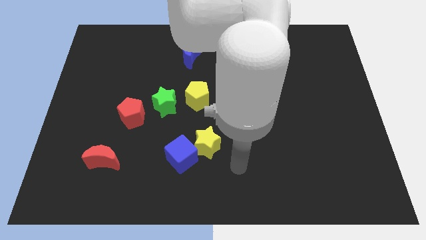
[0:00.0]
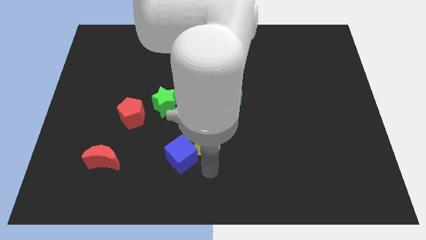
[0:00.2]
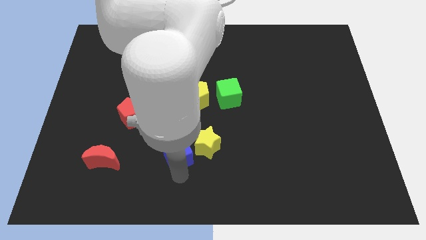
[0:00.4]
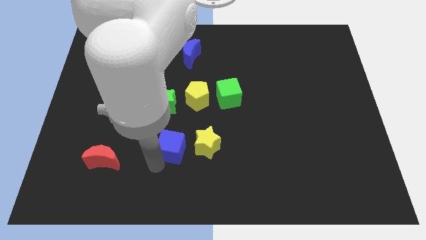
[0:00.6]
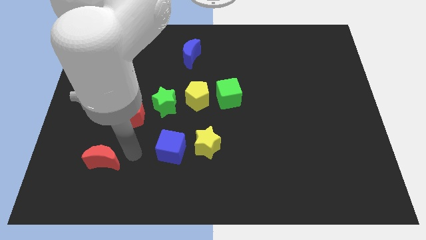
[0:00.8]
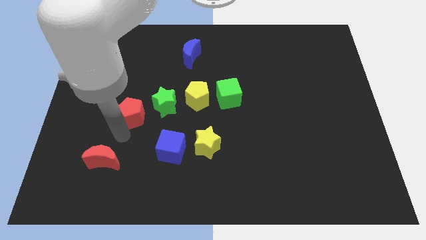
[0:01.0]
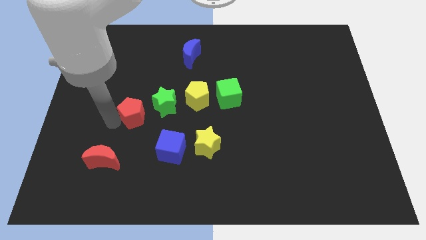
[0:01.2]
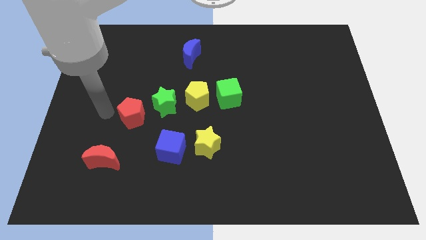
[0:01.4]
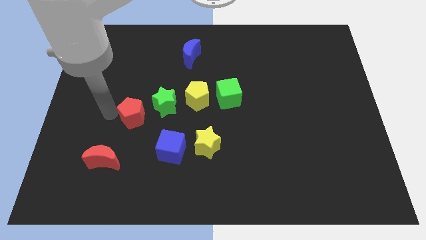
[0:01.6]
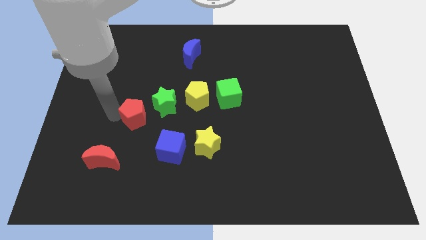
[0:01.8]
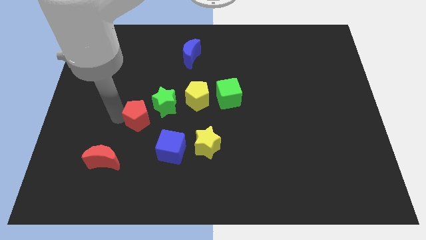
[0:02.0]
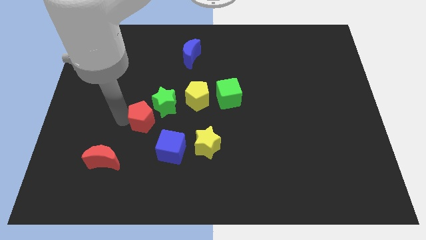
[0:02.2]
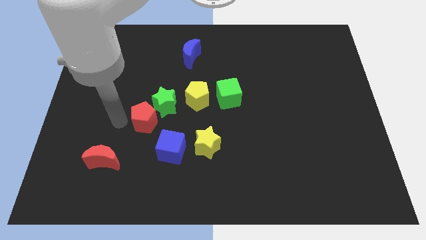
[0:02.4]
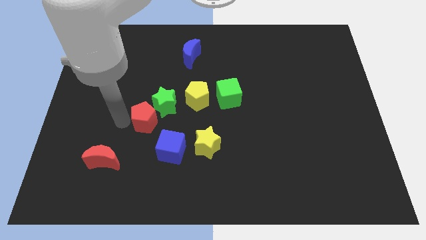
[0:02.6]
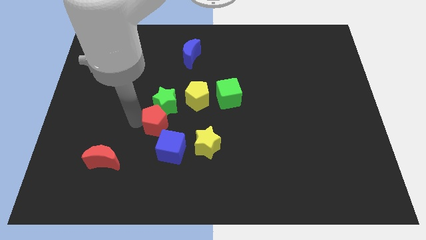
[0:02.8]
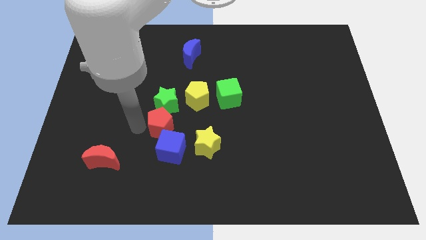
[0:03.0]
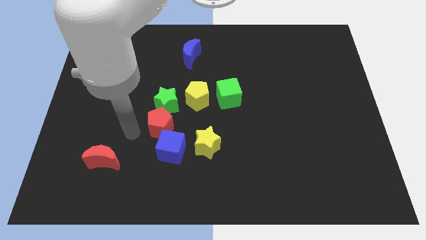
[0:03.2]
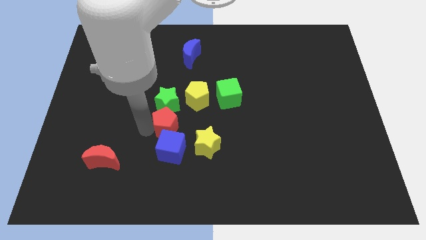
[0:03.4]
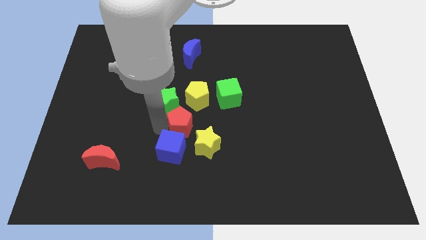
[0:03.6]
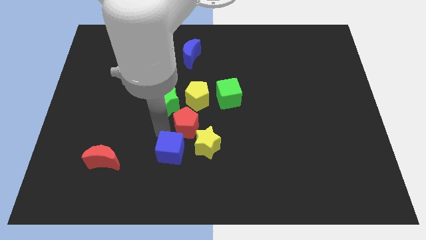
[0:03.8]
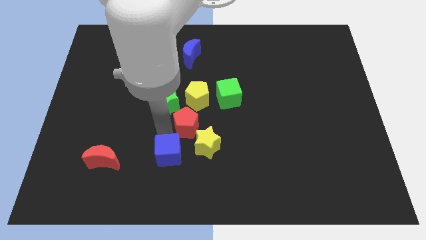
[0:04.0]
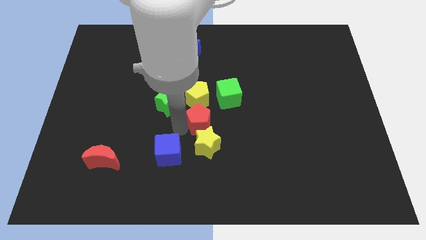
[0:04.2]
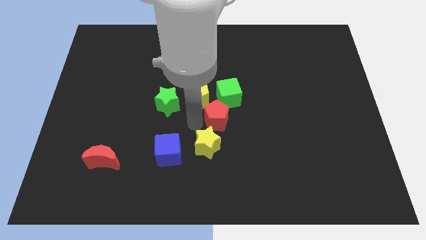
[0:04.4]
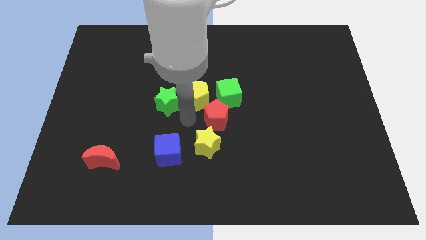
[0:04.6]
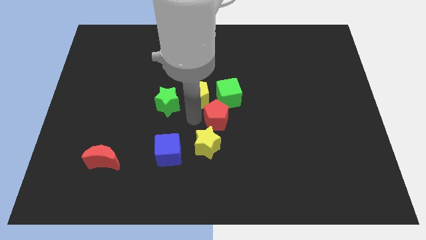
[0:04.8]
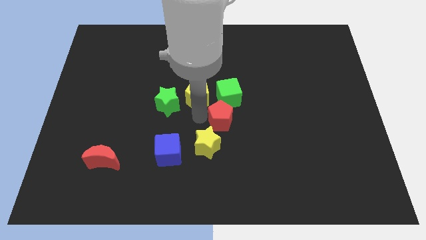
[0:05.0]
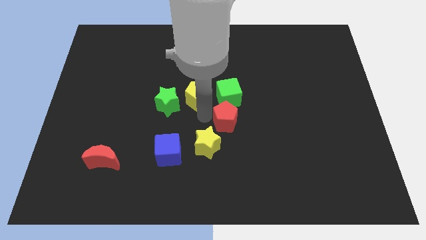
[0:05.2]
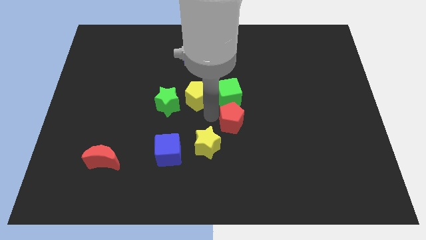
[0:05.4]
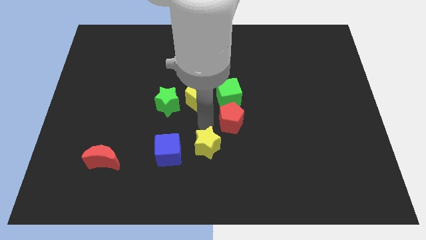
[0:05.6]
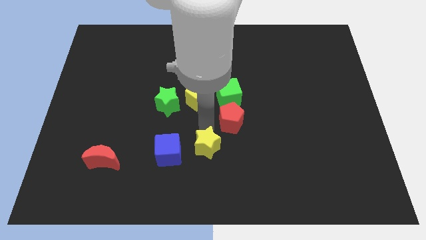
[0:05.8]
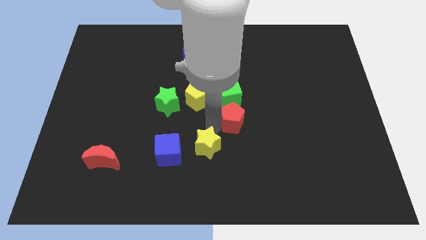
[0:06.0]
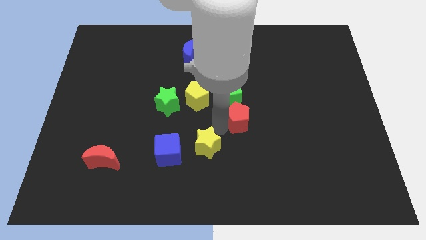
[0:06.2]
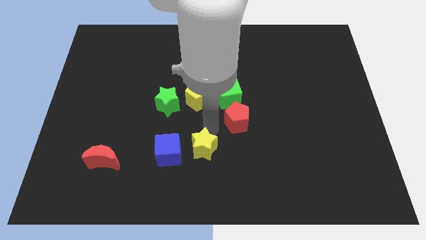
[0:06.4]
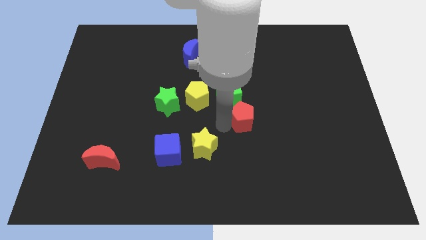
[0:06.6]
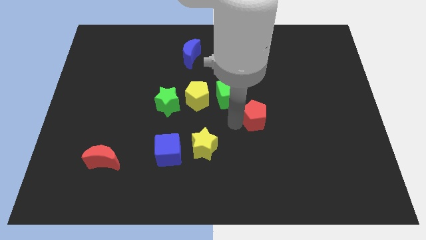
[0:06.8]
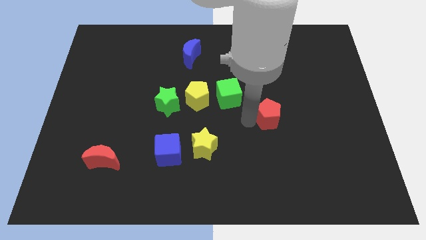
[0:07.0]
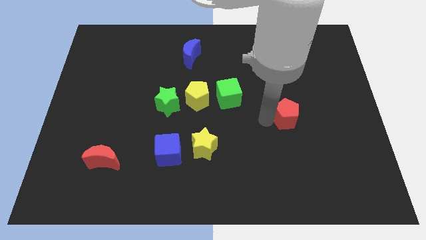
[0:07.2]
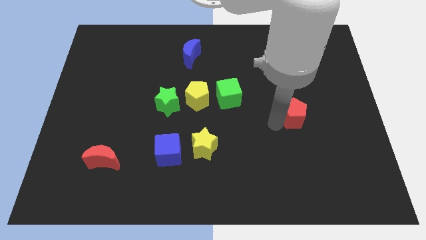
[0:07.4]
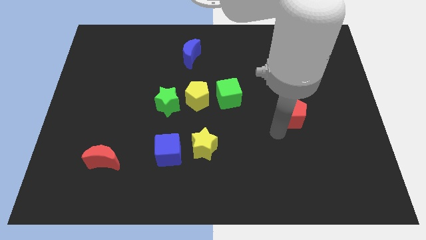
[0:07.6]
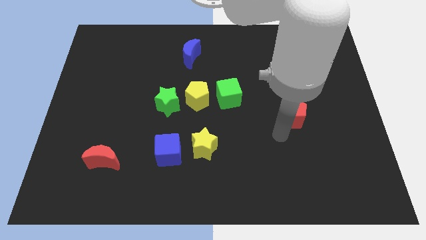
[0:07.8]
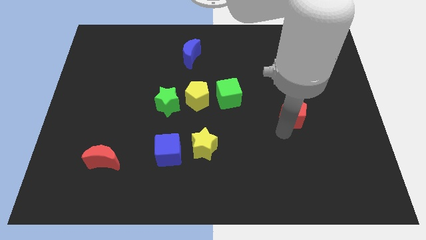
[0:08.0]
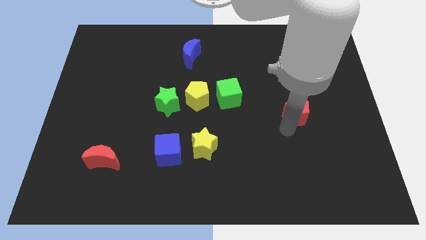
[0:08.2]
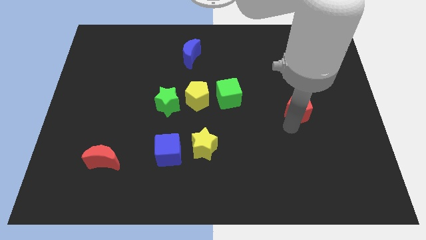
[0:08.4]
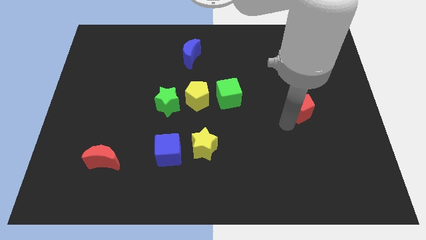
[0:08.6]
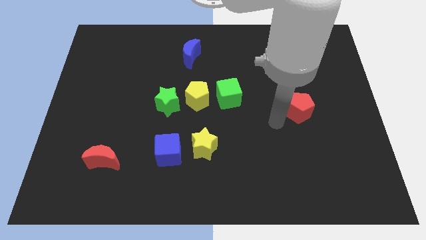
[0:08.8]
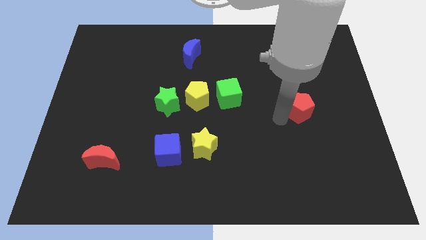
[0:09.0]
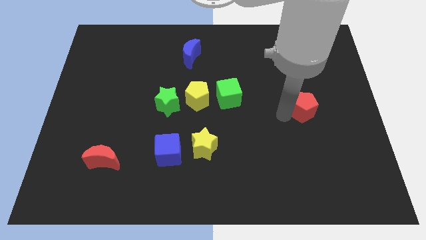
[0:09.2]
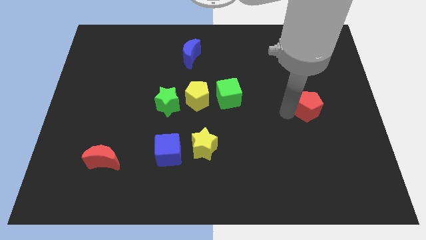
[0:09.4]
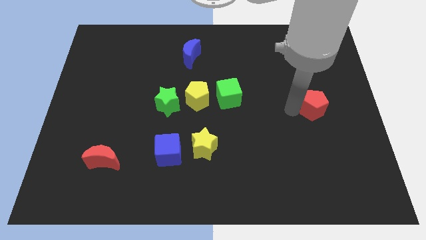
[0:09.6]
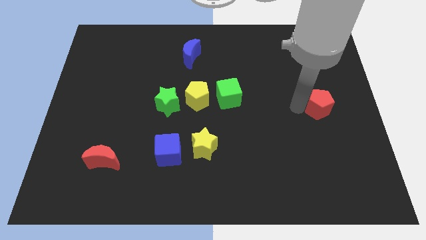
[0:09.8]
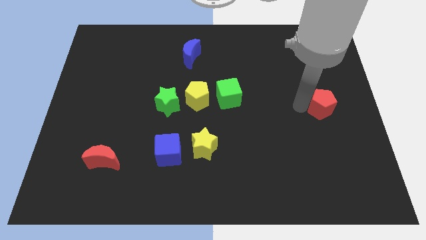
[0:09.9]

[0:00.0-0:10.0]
push the red pentagon to the center right

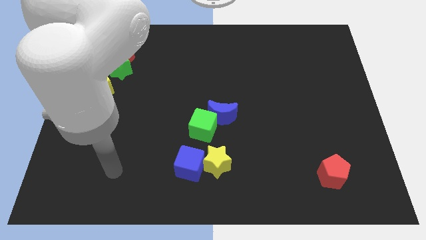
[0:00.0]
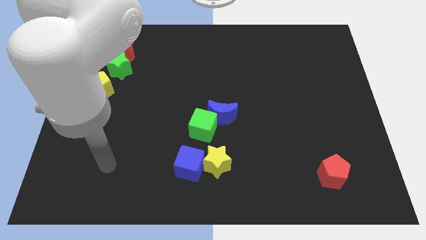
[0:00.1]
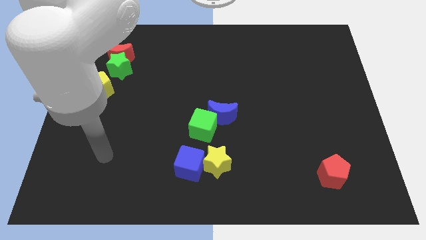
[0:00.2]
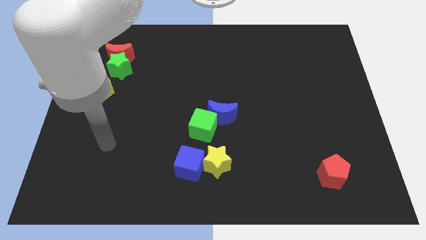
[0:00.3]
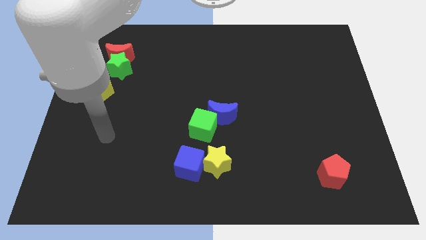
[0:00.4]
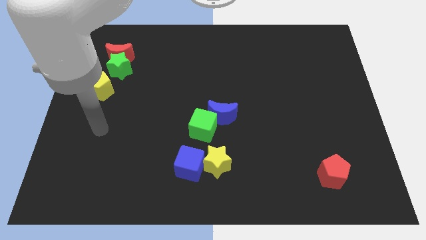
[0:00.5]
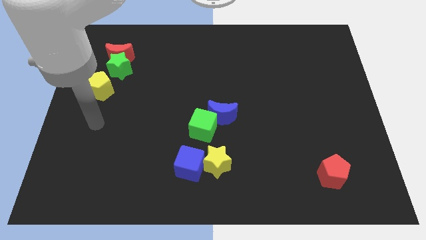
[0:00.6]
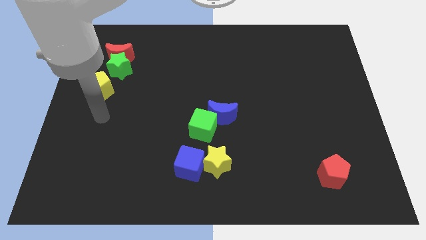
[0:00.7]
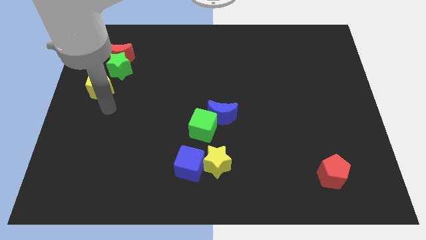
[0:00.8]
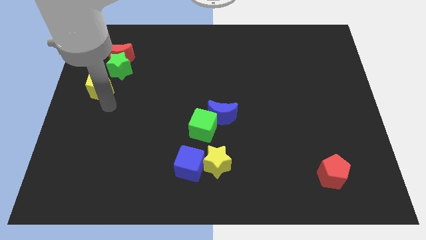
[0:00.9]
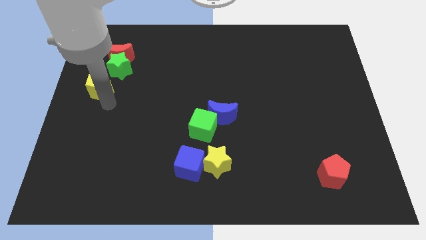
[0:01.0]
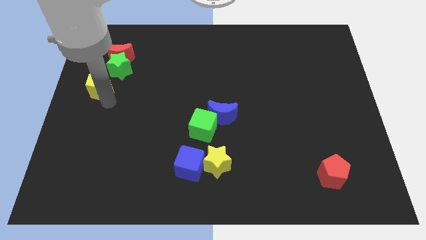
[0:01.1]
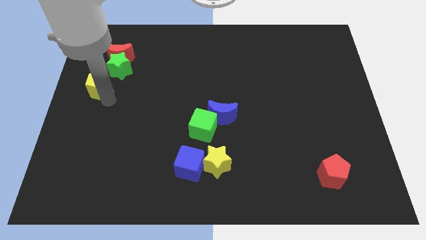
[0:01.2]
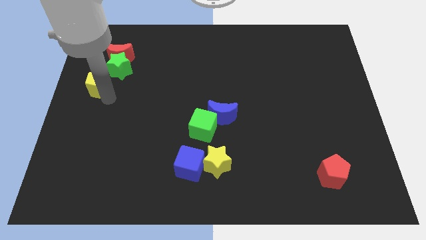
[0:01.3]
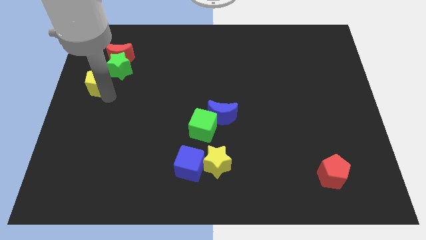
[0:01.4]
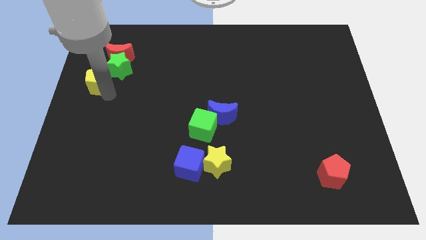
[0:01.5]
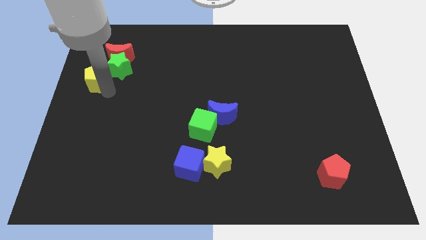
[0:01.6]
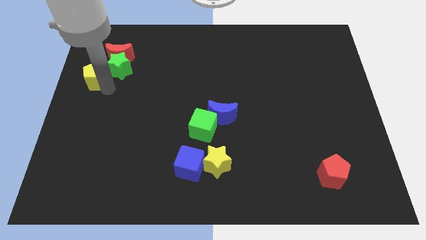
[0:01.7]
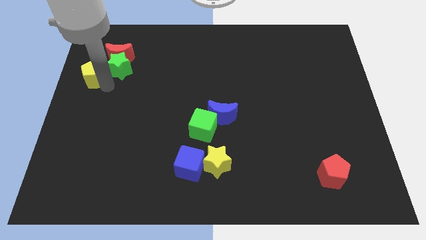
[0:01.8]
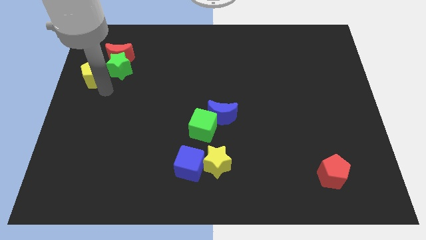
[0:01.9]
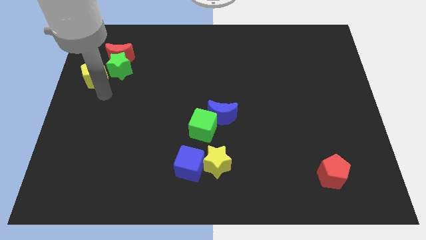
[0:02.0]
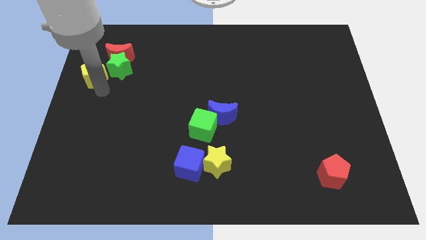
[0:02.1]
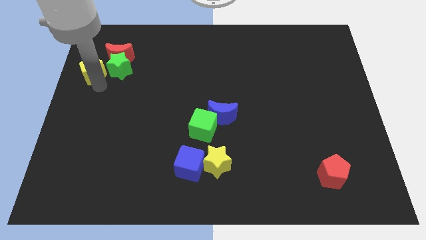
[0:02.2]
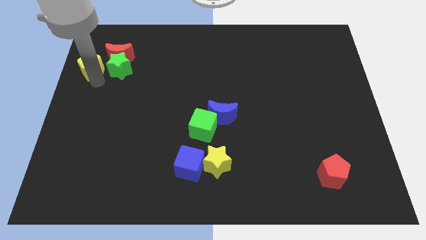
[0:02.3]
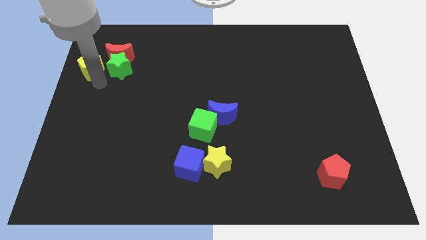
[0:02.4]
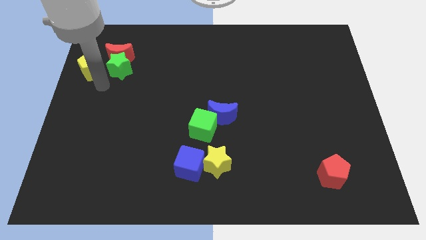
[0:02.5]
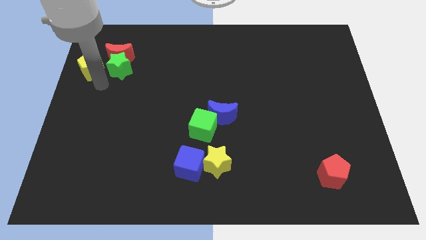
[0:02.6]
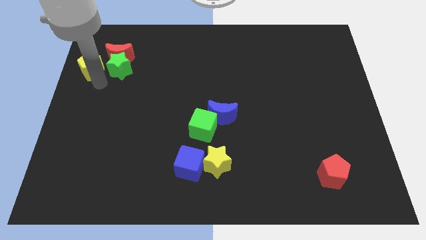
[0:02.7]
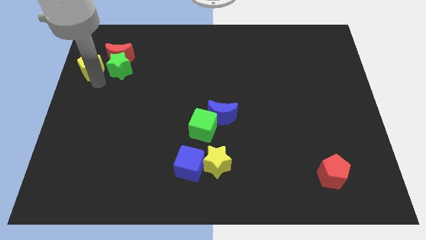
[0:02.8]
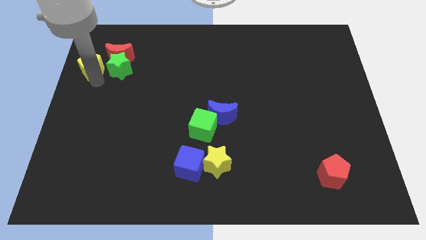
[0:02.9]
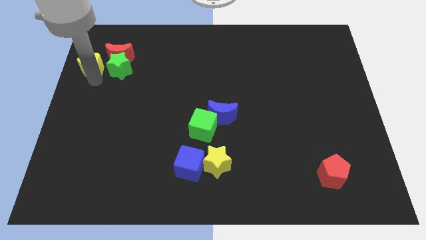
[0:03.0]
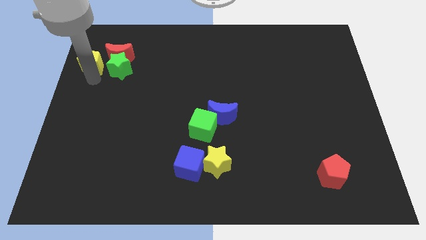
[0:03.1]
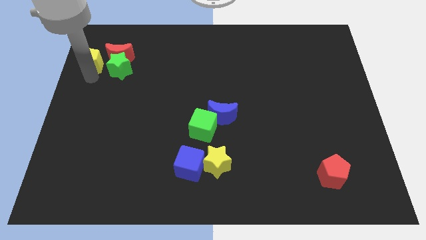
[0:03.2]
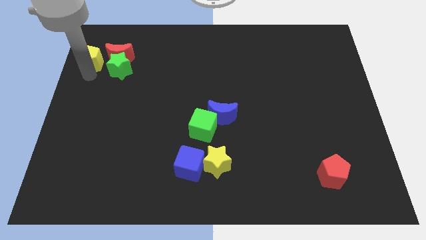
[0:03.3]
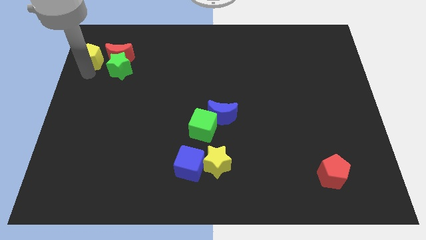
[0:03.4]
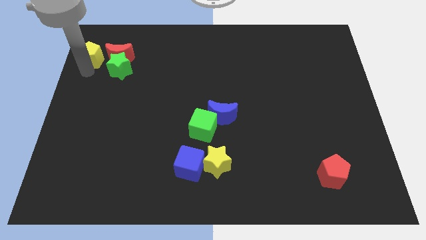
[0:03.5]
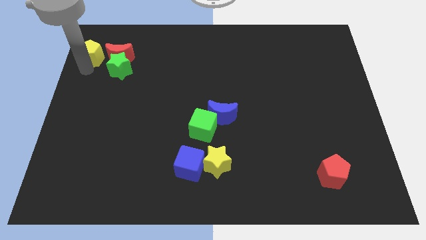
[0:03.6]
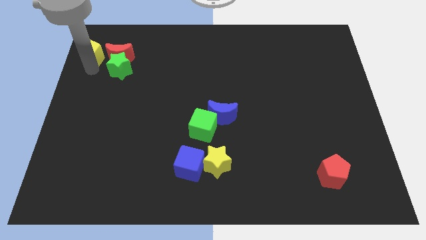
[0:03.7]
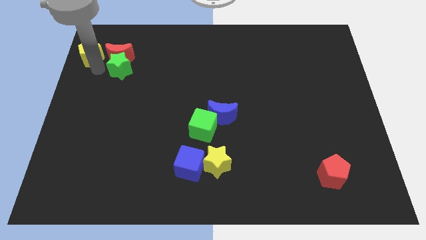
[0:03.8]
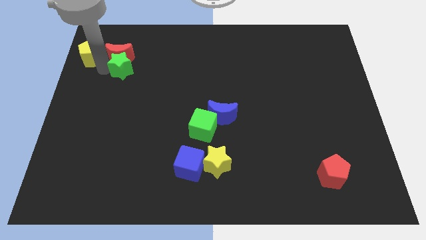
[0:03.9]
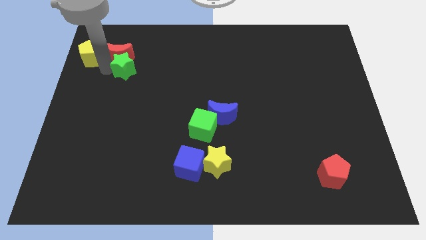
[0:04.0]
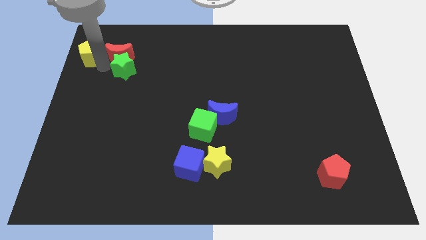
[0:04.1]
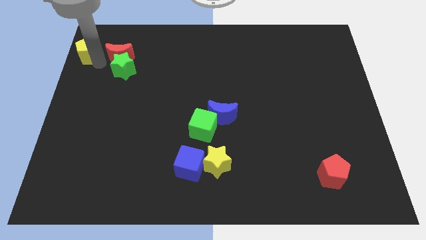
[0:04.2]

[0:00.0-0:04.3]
move the yellow pentagon to the top left corner
